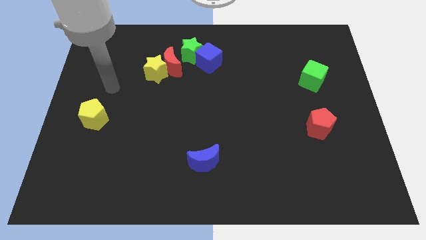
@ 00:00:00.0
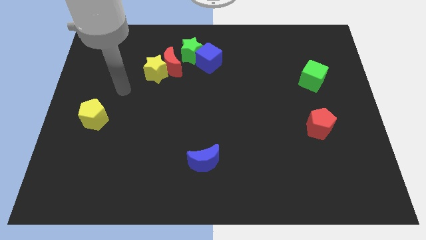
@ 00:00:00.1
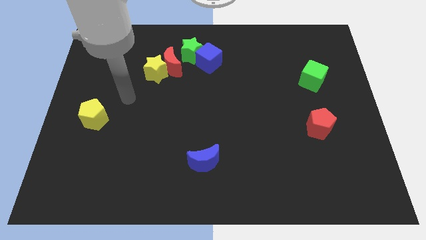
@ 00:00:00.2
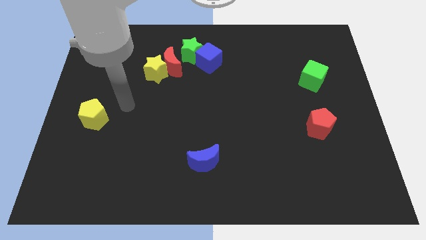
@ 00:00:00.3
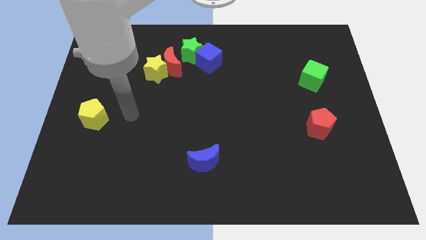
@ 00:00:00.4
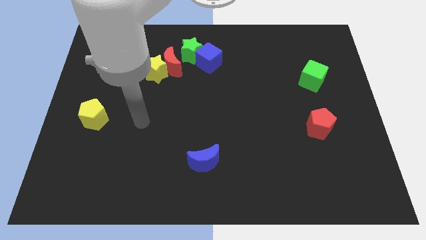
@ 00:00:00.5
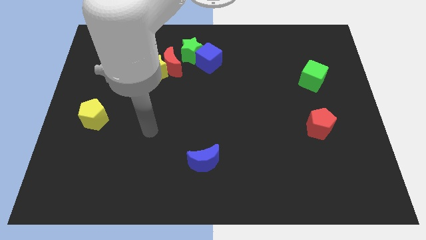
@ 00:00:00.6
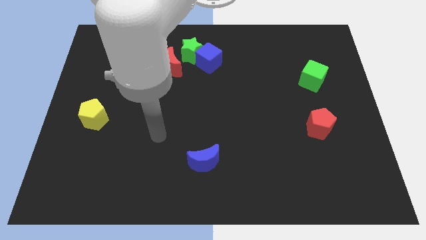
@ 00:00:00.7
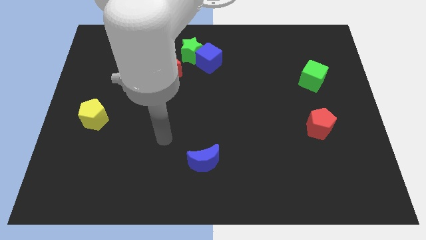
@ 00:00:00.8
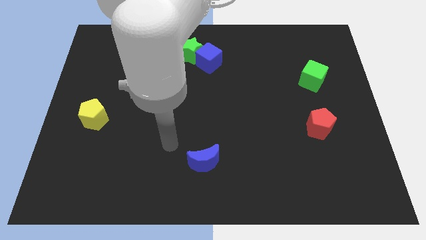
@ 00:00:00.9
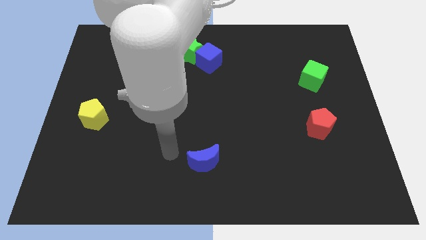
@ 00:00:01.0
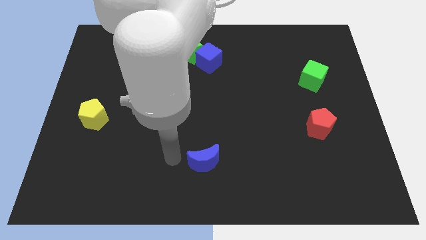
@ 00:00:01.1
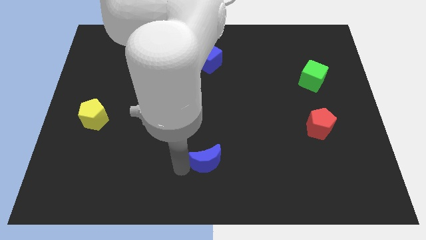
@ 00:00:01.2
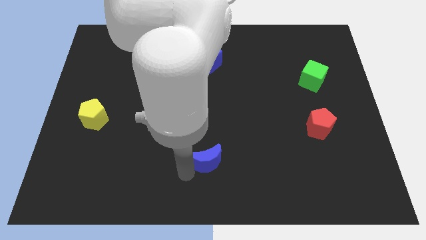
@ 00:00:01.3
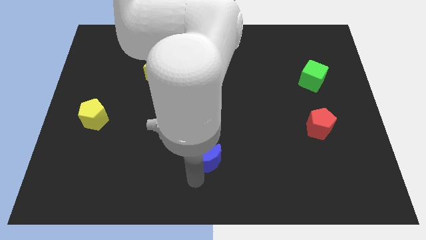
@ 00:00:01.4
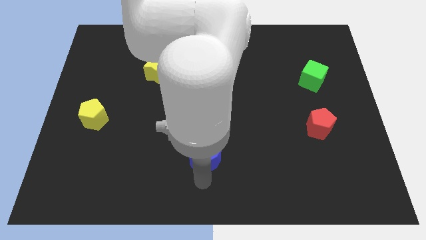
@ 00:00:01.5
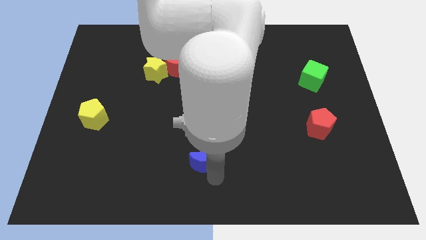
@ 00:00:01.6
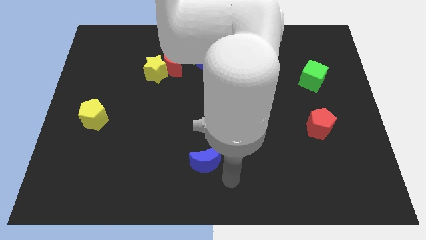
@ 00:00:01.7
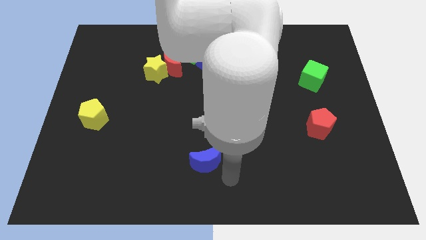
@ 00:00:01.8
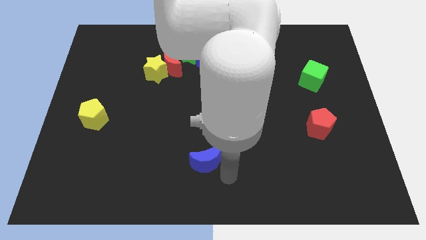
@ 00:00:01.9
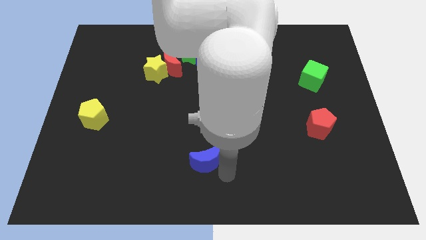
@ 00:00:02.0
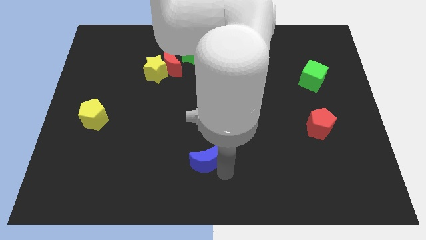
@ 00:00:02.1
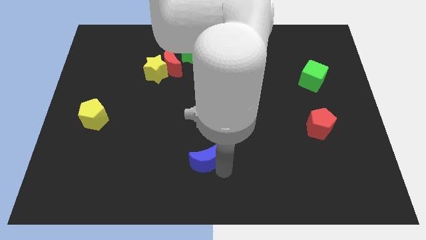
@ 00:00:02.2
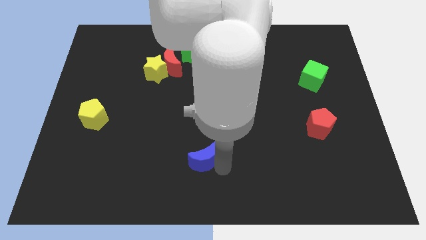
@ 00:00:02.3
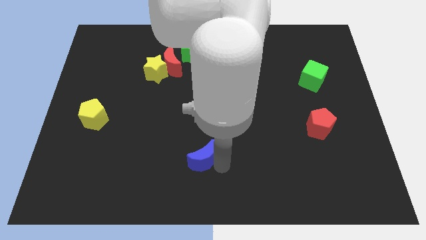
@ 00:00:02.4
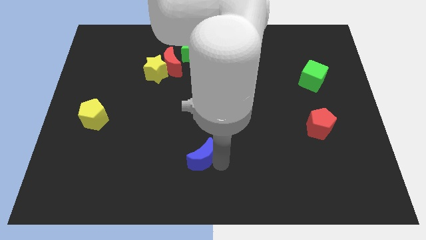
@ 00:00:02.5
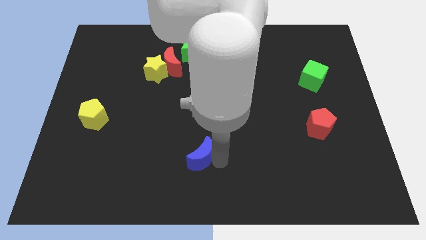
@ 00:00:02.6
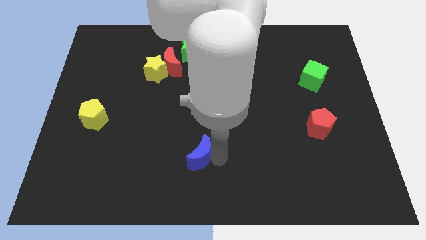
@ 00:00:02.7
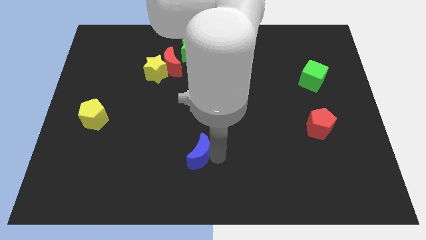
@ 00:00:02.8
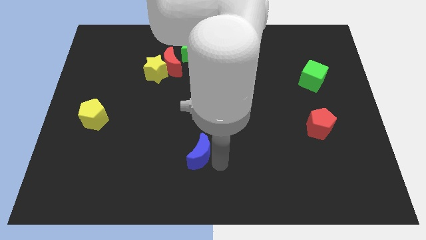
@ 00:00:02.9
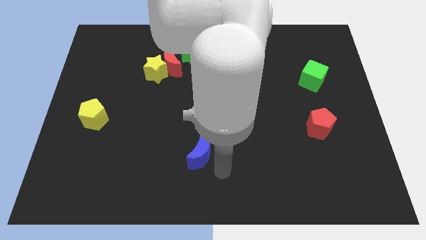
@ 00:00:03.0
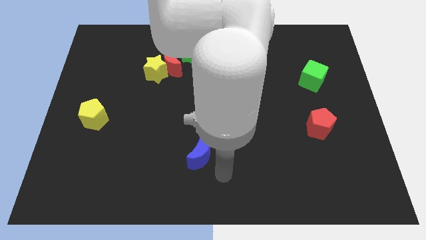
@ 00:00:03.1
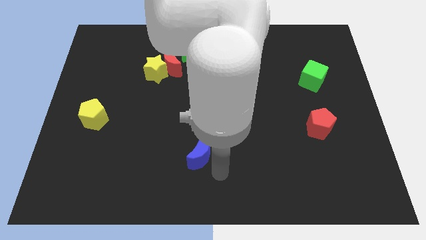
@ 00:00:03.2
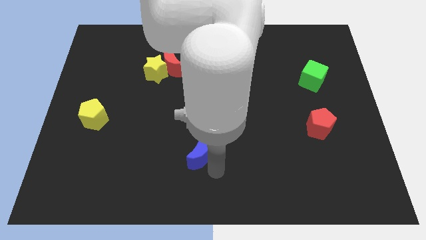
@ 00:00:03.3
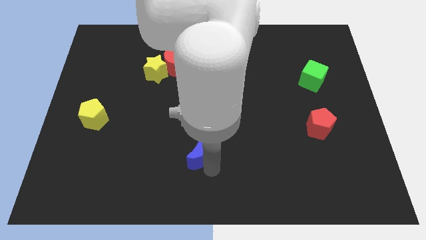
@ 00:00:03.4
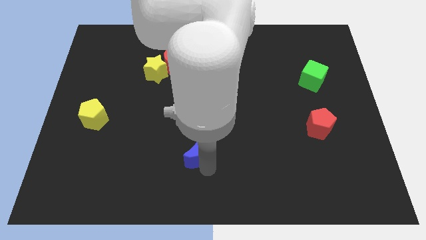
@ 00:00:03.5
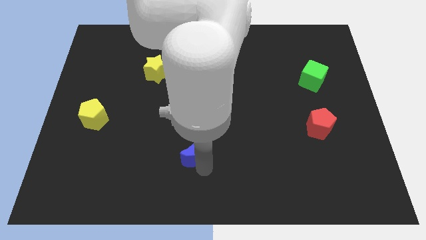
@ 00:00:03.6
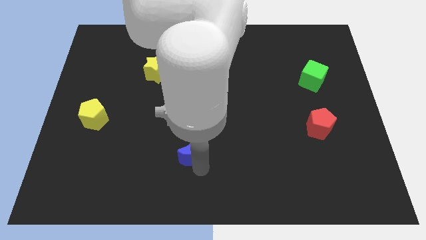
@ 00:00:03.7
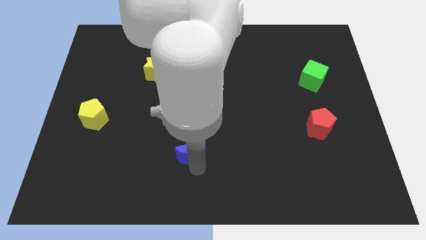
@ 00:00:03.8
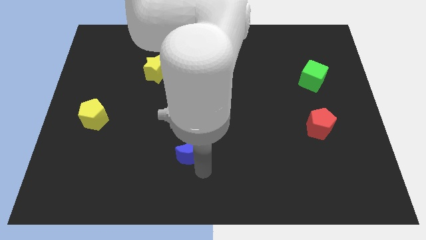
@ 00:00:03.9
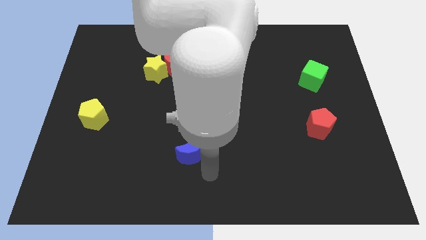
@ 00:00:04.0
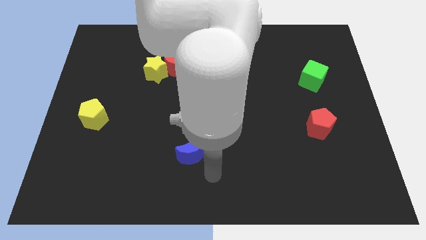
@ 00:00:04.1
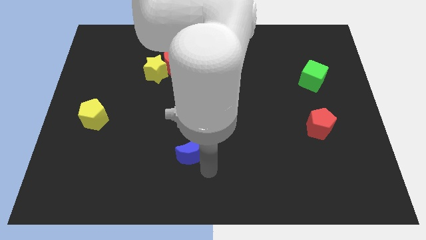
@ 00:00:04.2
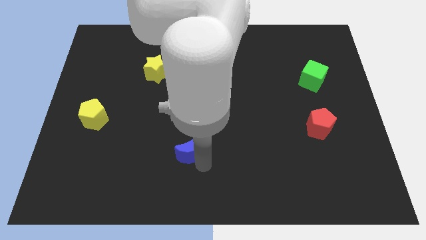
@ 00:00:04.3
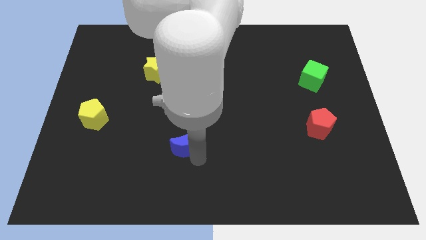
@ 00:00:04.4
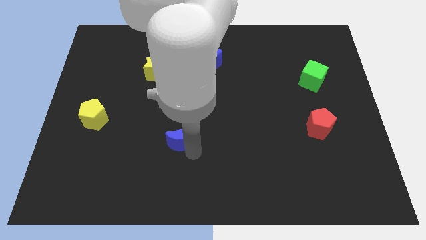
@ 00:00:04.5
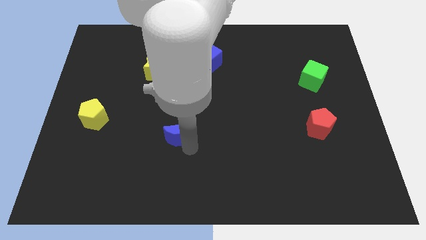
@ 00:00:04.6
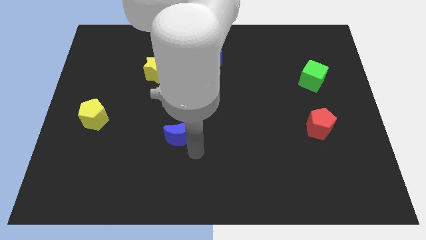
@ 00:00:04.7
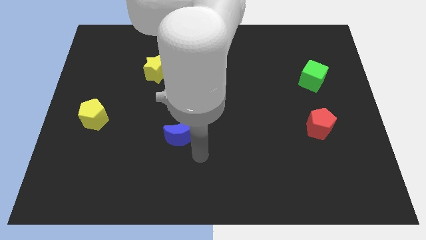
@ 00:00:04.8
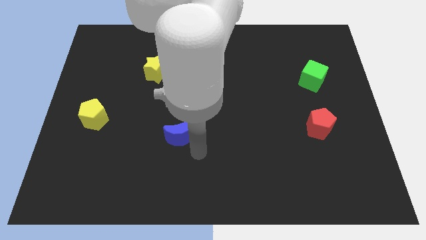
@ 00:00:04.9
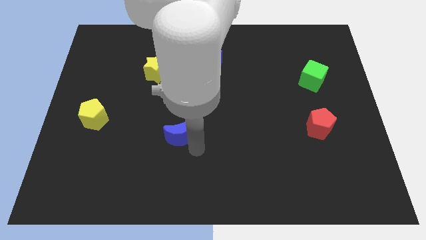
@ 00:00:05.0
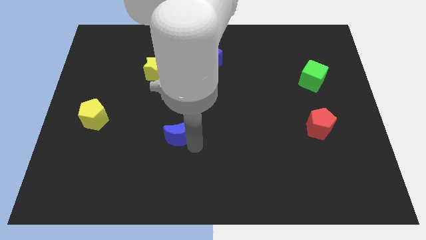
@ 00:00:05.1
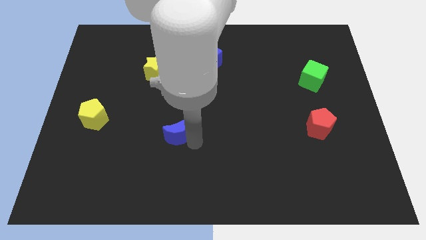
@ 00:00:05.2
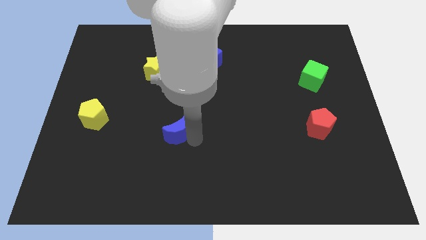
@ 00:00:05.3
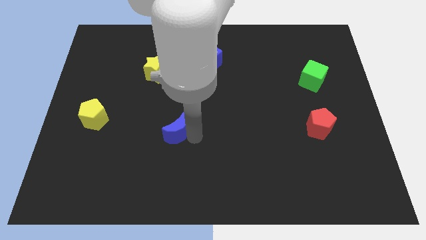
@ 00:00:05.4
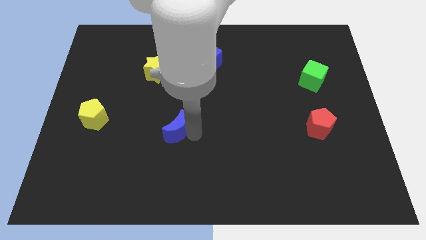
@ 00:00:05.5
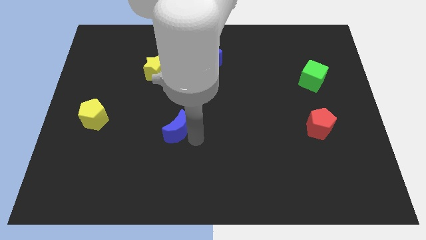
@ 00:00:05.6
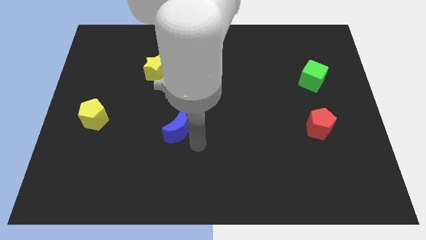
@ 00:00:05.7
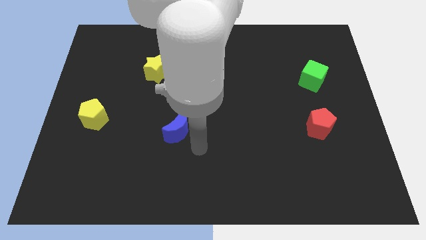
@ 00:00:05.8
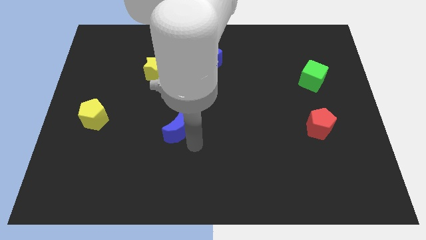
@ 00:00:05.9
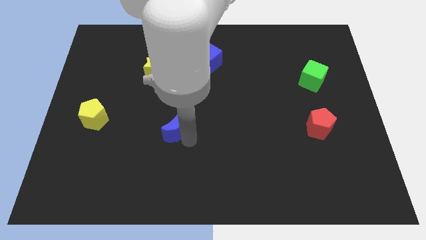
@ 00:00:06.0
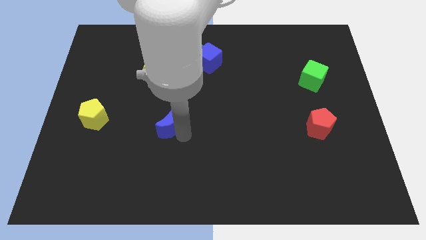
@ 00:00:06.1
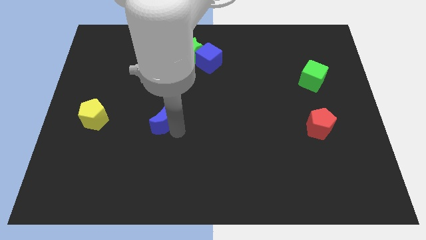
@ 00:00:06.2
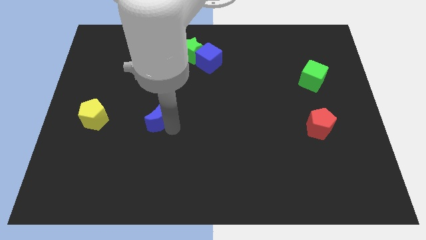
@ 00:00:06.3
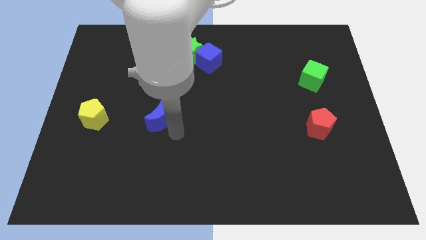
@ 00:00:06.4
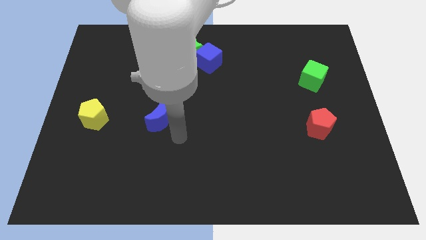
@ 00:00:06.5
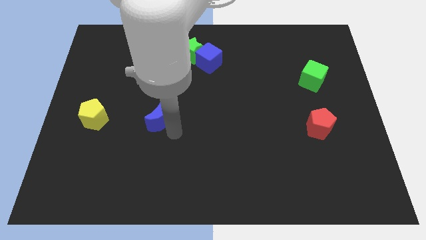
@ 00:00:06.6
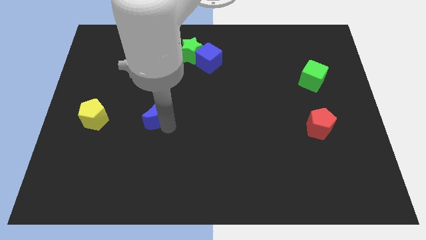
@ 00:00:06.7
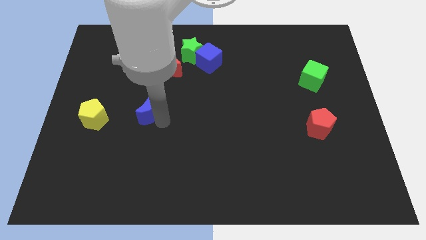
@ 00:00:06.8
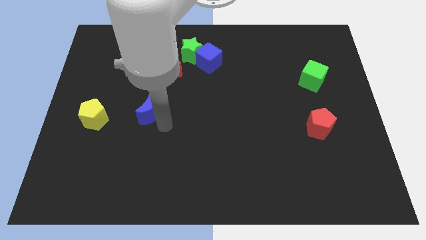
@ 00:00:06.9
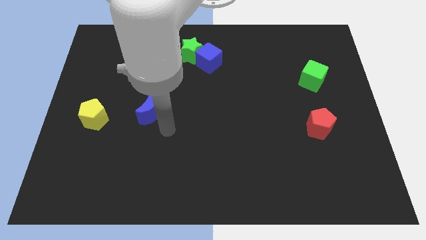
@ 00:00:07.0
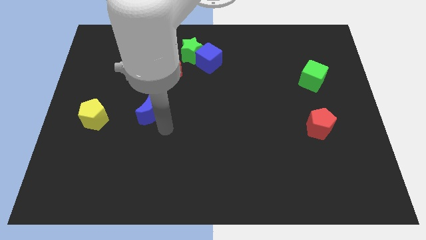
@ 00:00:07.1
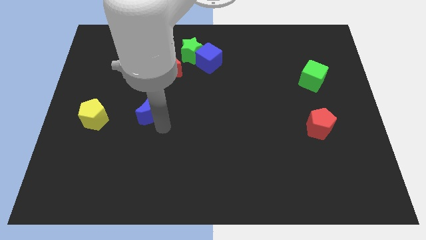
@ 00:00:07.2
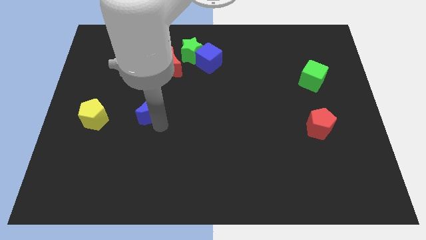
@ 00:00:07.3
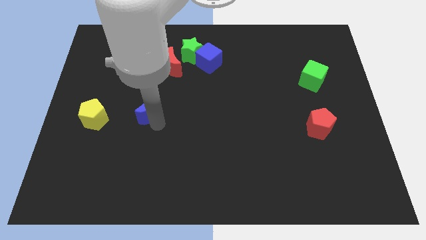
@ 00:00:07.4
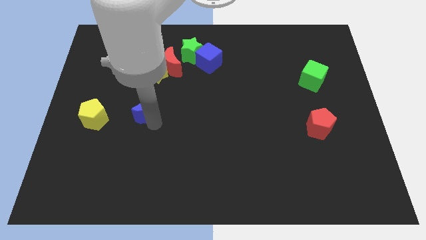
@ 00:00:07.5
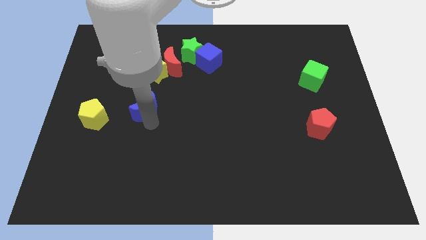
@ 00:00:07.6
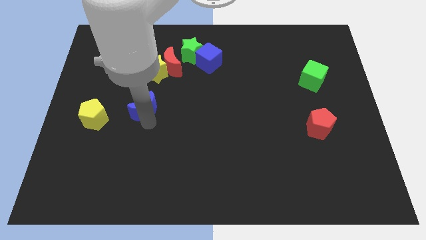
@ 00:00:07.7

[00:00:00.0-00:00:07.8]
slide the blue moon up and to the left diagonally
